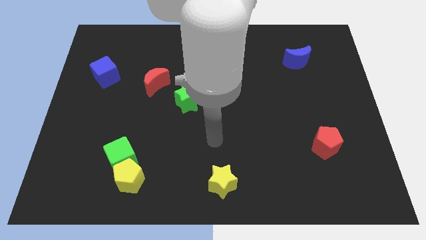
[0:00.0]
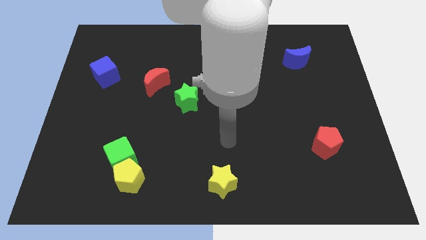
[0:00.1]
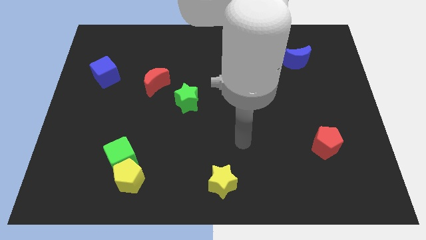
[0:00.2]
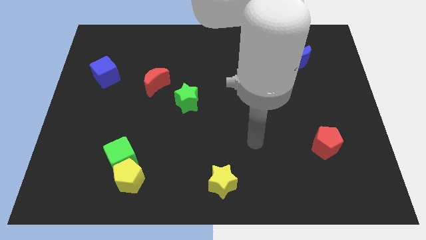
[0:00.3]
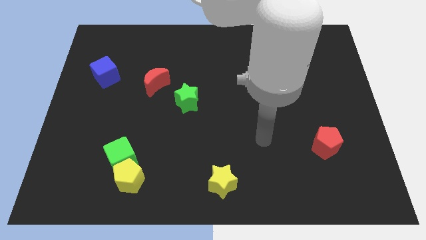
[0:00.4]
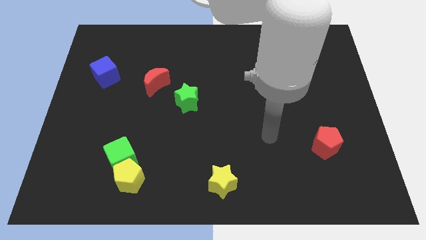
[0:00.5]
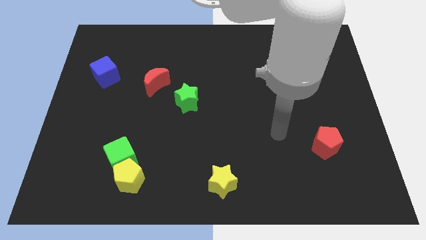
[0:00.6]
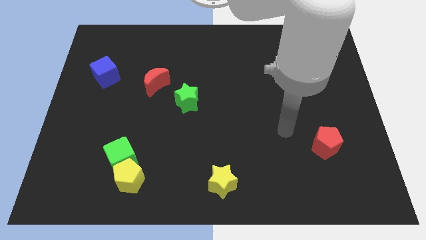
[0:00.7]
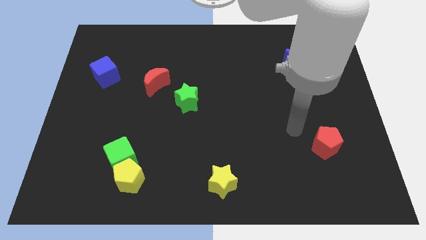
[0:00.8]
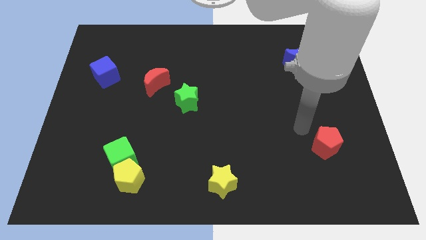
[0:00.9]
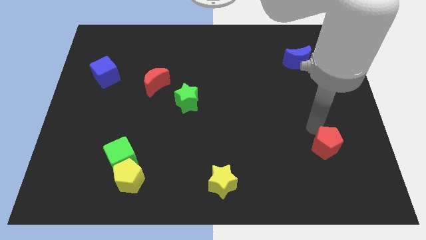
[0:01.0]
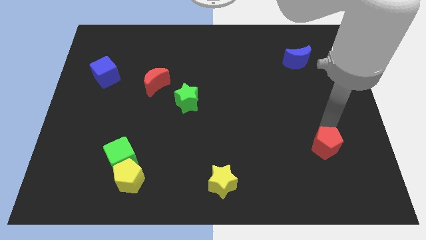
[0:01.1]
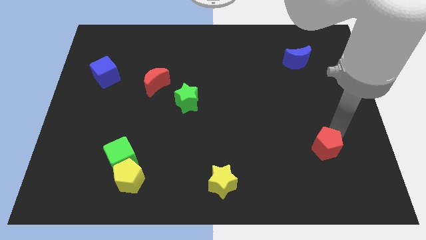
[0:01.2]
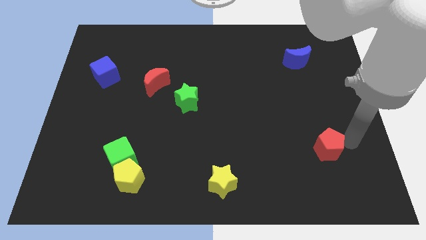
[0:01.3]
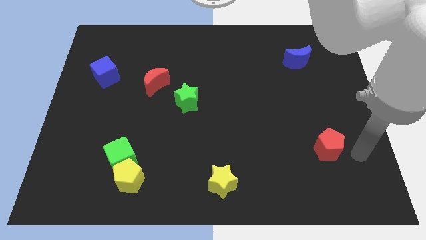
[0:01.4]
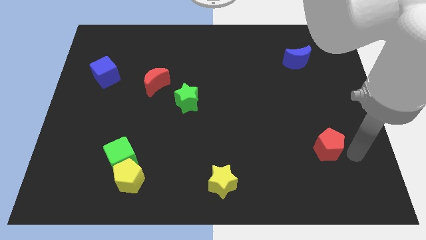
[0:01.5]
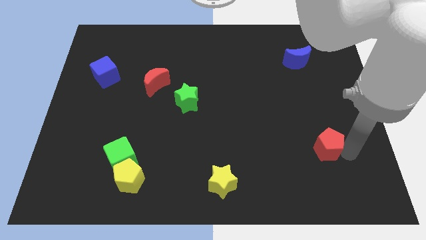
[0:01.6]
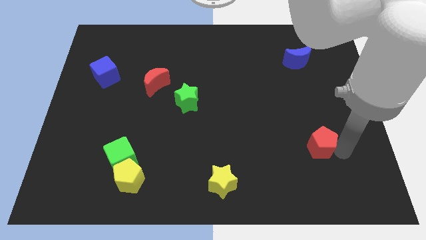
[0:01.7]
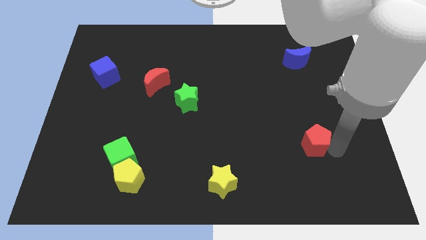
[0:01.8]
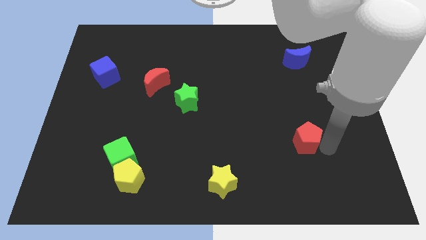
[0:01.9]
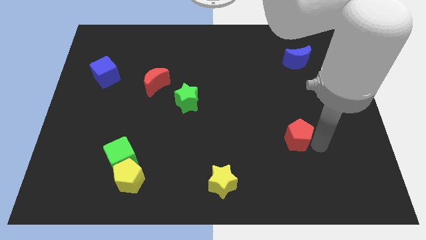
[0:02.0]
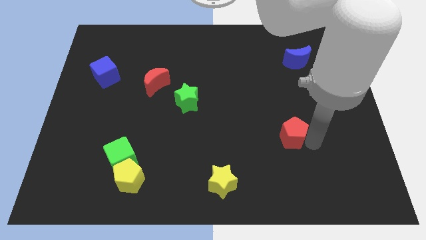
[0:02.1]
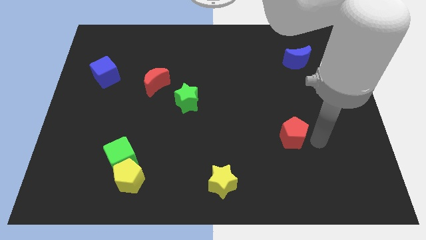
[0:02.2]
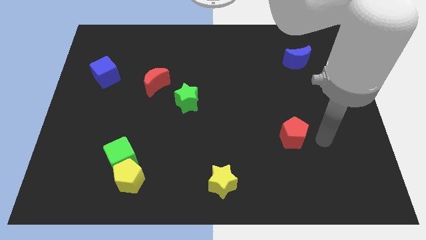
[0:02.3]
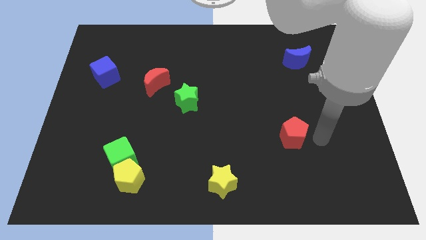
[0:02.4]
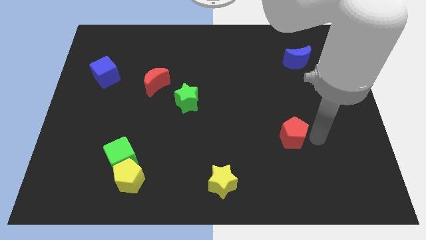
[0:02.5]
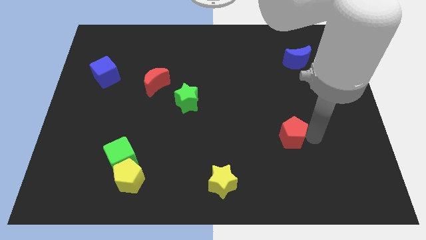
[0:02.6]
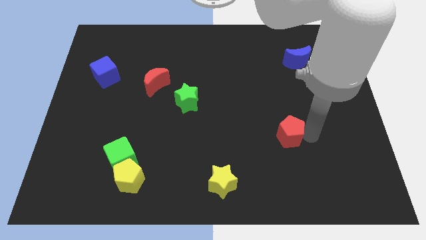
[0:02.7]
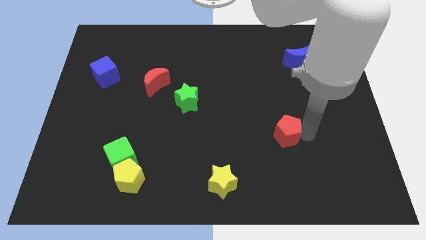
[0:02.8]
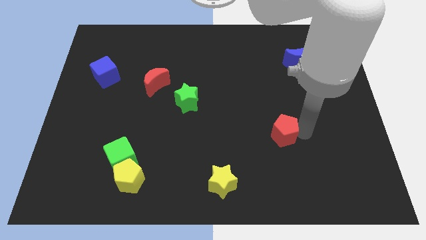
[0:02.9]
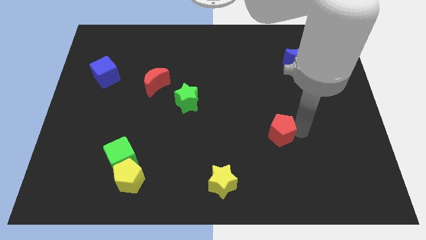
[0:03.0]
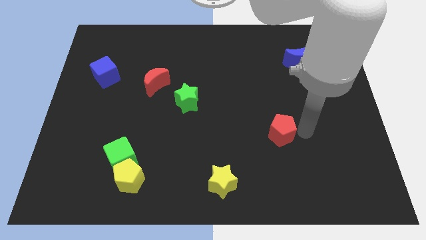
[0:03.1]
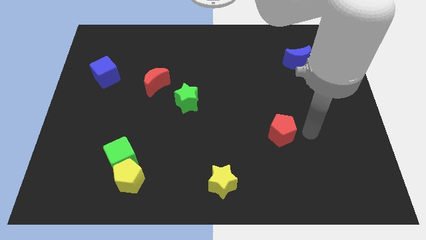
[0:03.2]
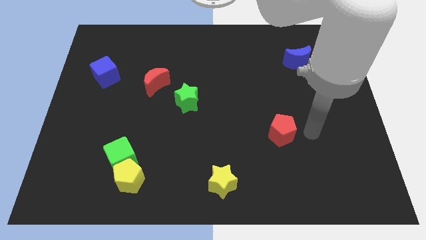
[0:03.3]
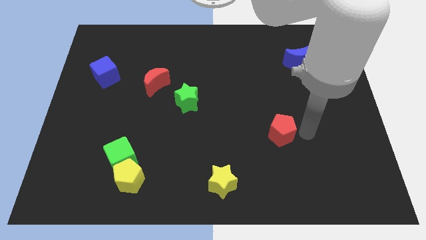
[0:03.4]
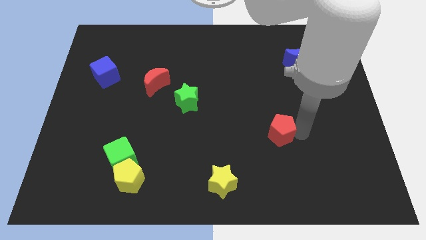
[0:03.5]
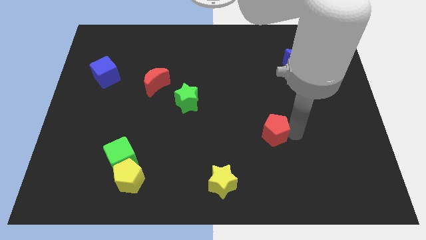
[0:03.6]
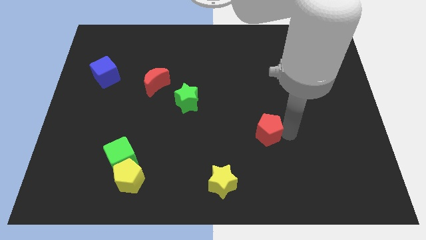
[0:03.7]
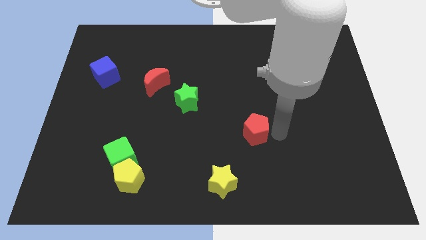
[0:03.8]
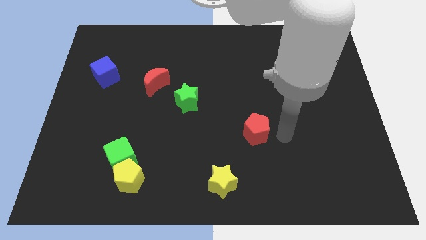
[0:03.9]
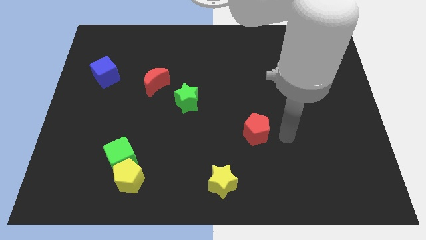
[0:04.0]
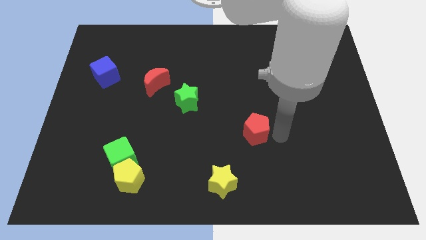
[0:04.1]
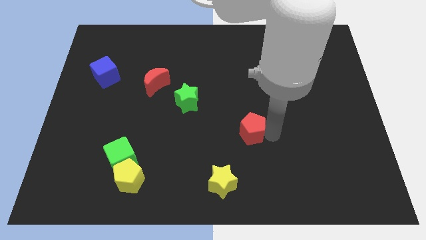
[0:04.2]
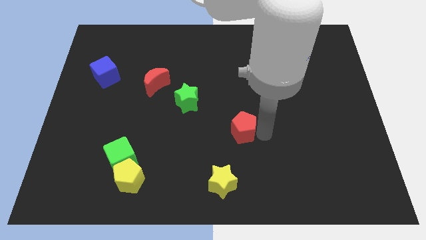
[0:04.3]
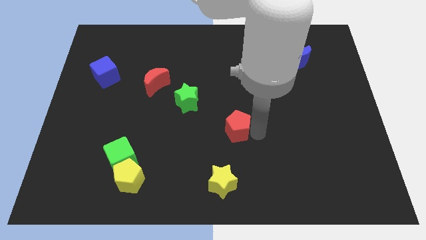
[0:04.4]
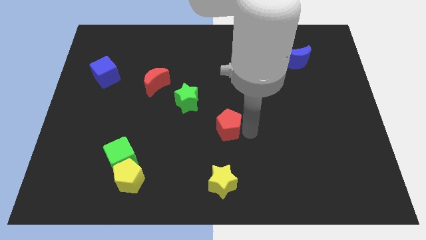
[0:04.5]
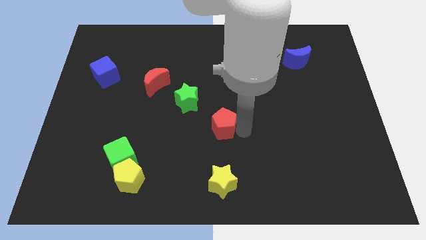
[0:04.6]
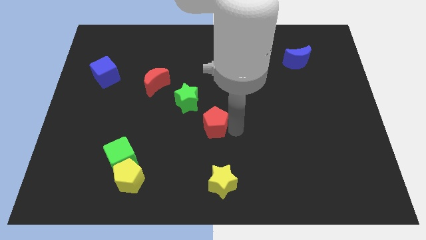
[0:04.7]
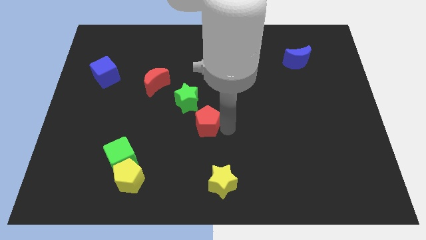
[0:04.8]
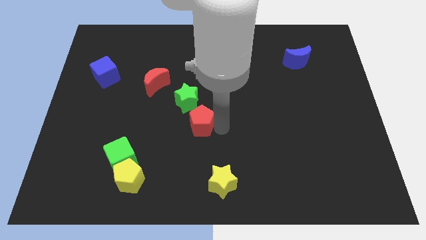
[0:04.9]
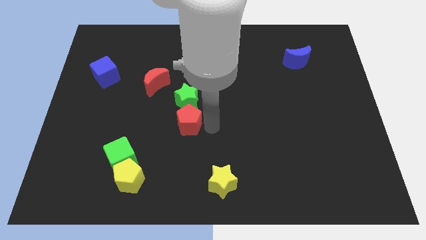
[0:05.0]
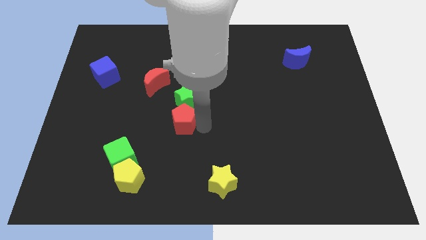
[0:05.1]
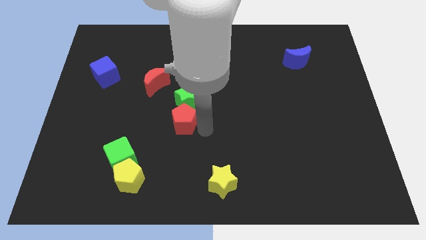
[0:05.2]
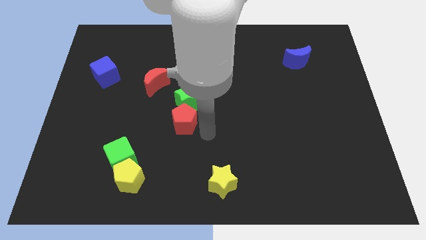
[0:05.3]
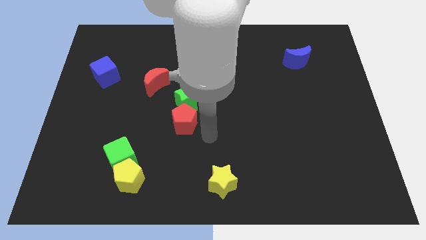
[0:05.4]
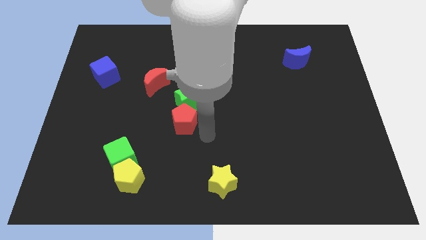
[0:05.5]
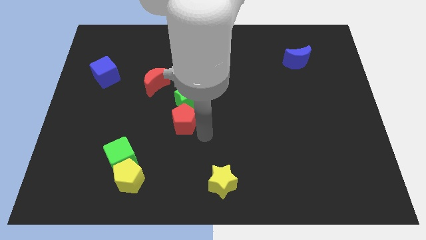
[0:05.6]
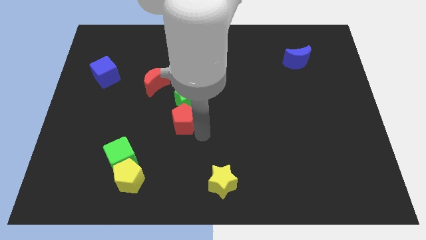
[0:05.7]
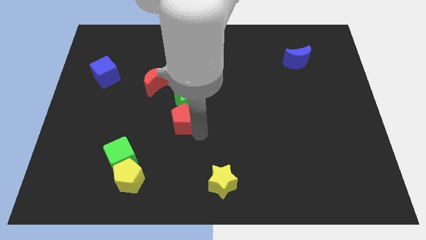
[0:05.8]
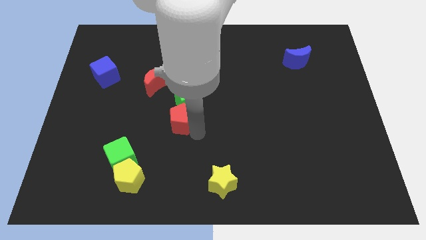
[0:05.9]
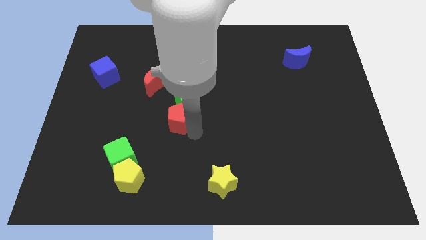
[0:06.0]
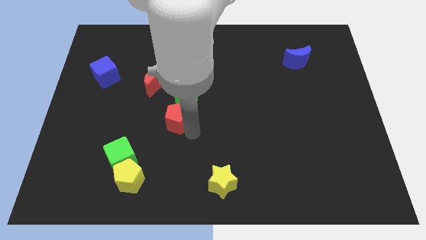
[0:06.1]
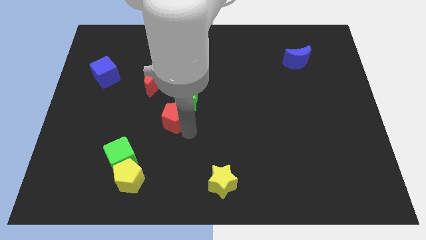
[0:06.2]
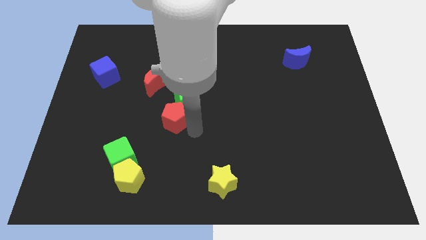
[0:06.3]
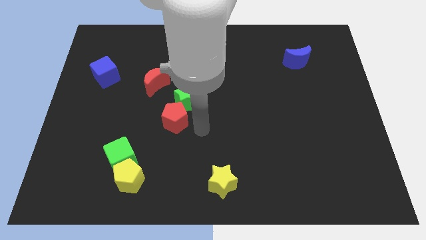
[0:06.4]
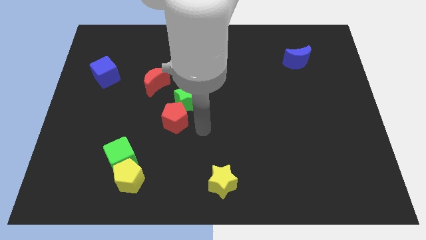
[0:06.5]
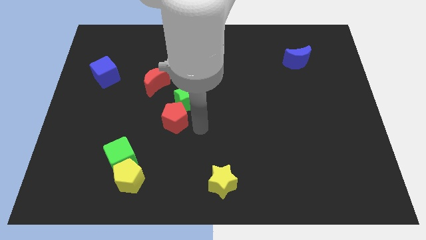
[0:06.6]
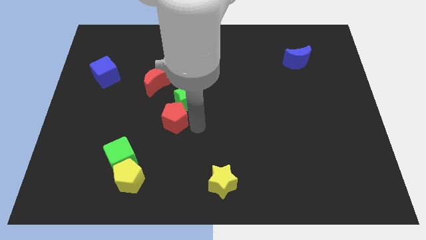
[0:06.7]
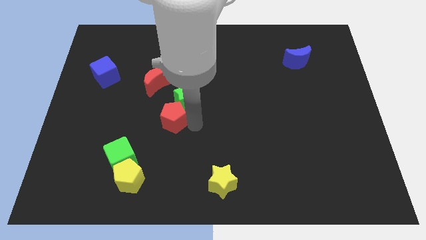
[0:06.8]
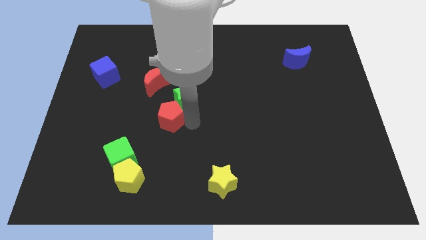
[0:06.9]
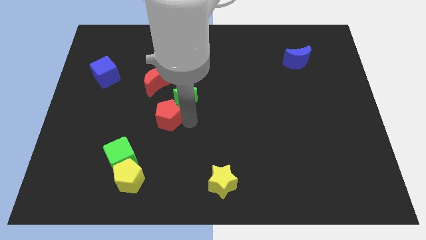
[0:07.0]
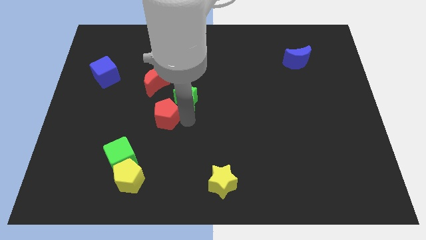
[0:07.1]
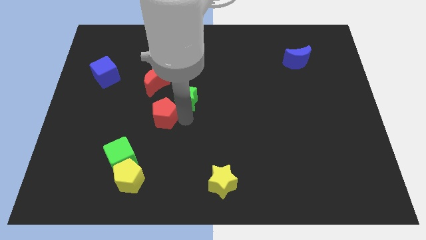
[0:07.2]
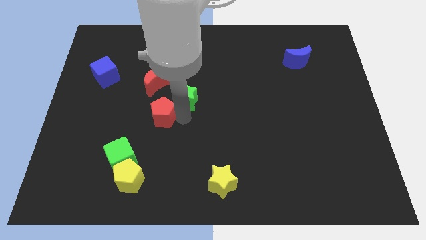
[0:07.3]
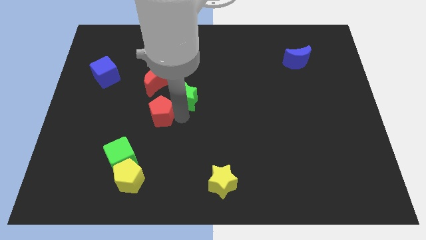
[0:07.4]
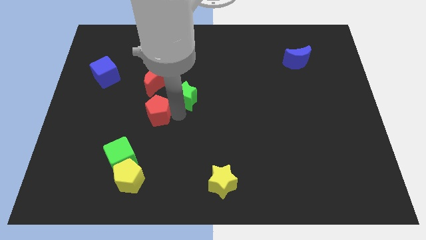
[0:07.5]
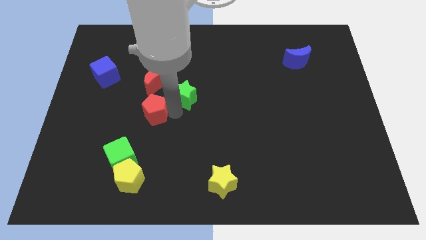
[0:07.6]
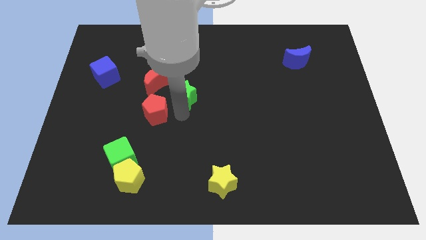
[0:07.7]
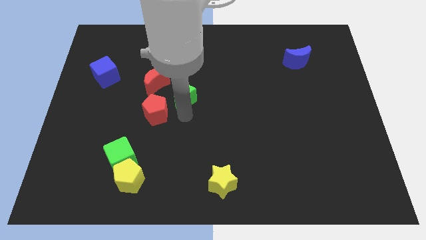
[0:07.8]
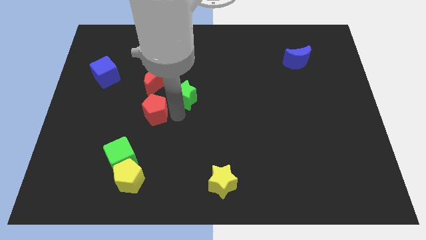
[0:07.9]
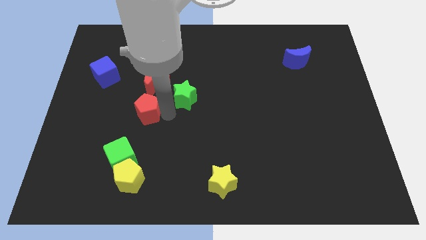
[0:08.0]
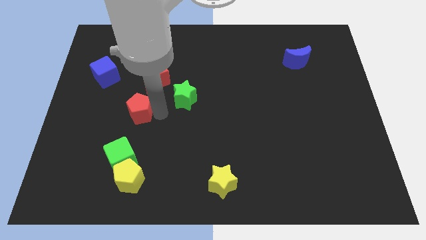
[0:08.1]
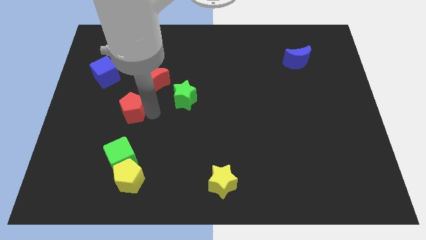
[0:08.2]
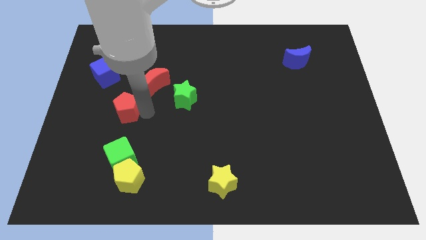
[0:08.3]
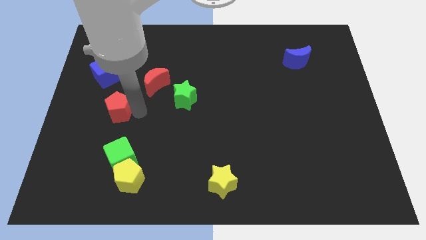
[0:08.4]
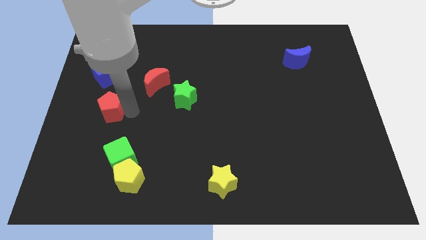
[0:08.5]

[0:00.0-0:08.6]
push the red pentagon below the blue cube
